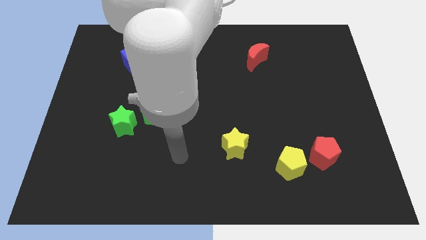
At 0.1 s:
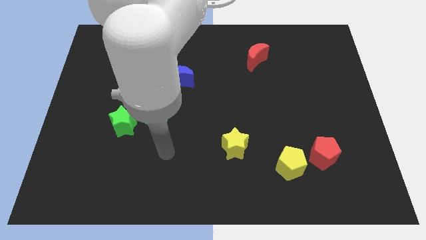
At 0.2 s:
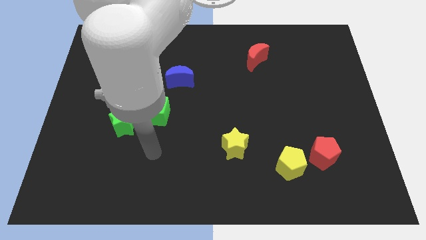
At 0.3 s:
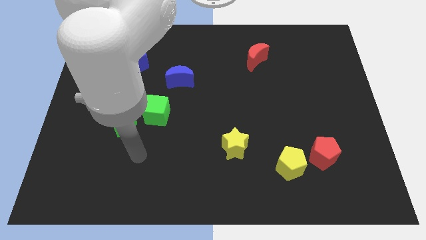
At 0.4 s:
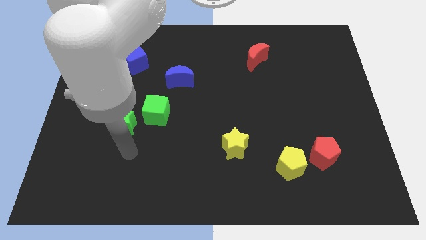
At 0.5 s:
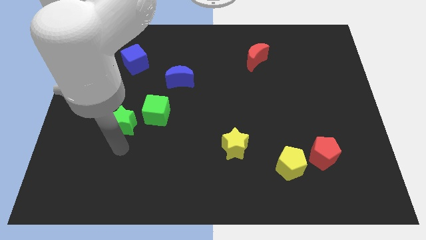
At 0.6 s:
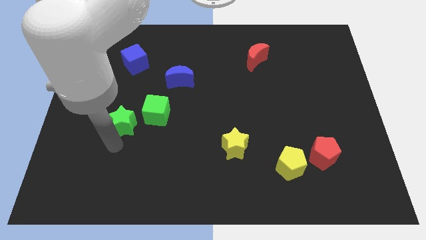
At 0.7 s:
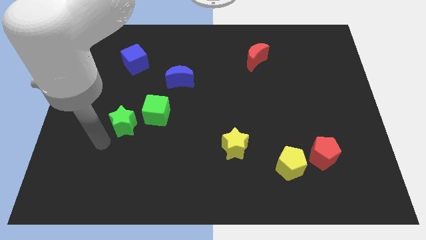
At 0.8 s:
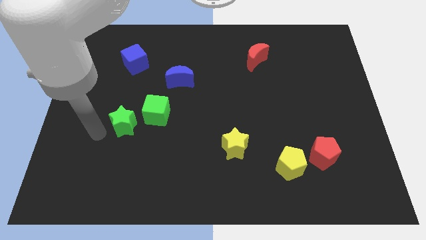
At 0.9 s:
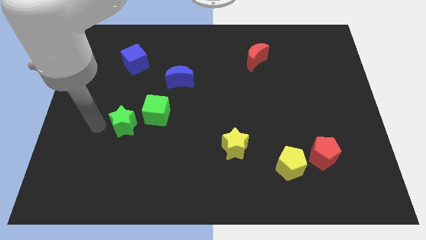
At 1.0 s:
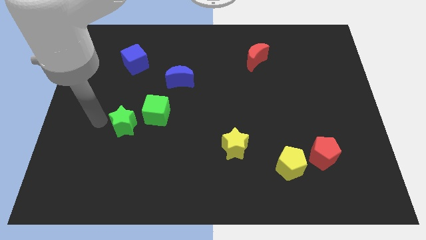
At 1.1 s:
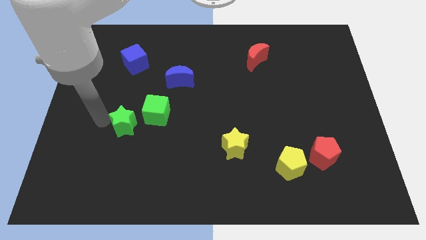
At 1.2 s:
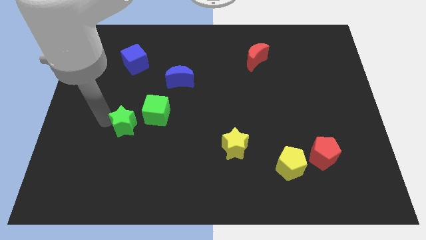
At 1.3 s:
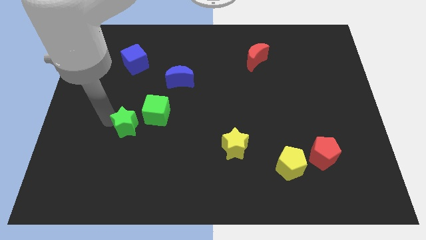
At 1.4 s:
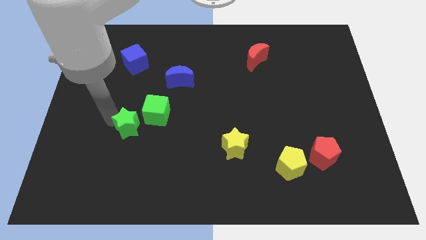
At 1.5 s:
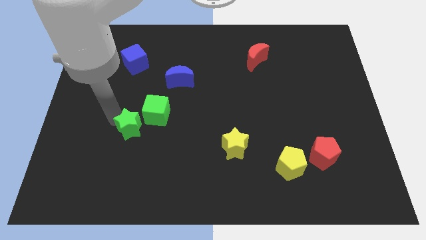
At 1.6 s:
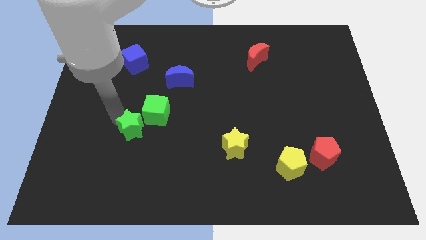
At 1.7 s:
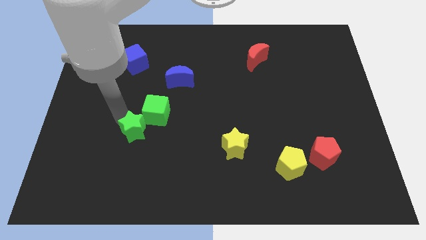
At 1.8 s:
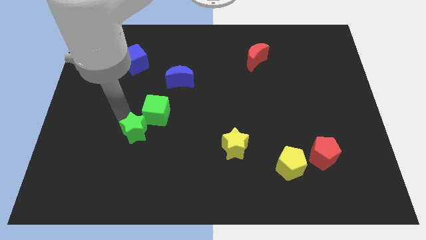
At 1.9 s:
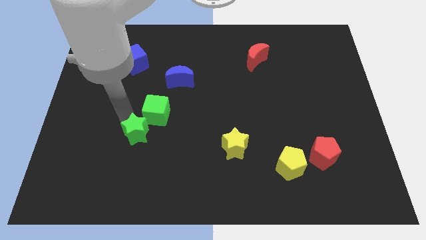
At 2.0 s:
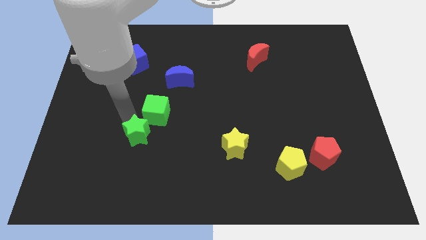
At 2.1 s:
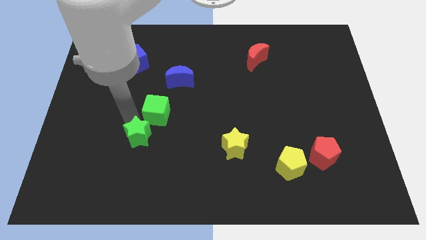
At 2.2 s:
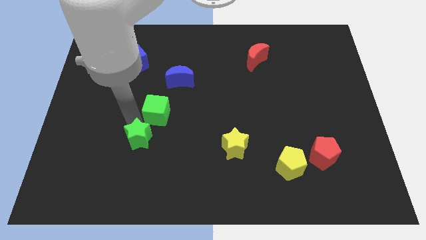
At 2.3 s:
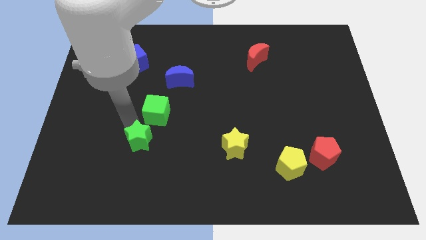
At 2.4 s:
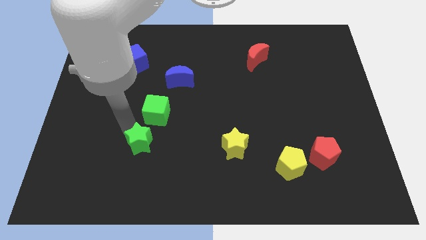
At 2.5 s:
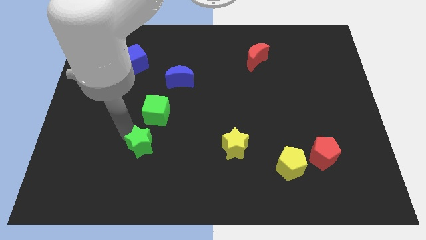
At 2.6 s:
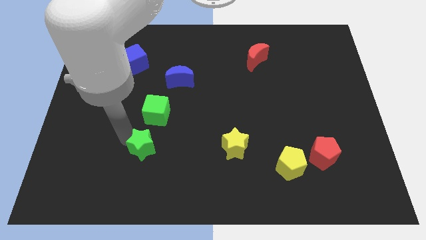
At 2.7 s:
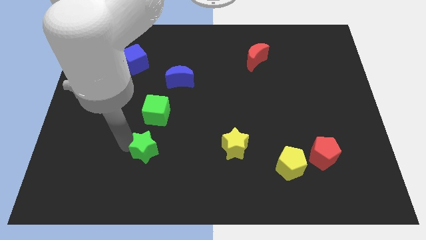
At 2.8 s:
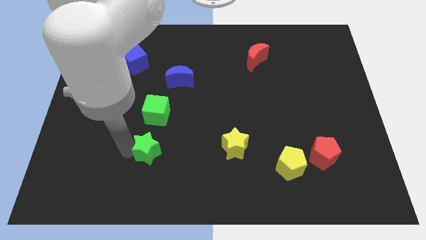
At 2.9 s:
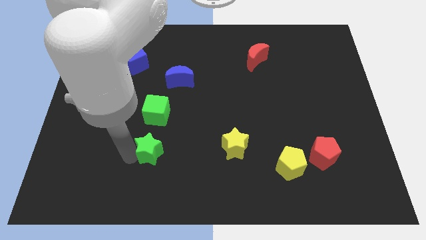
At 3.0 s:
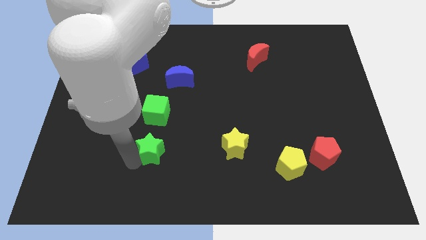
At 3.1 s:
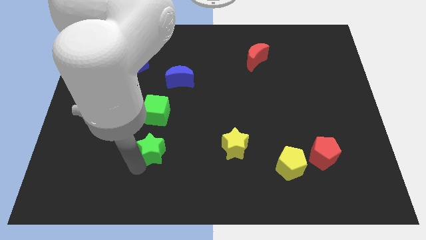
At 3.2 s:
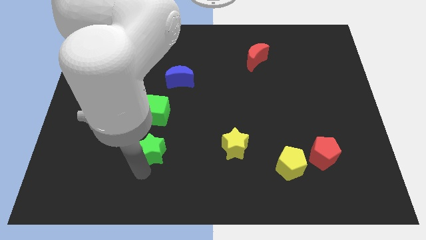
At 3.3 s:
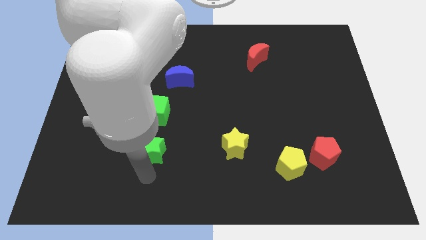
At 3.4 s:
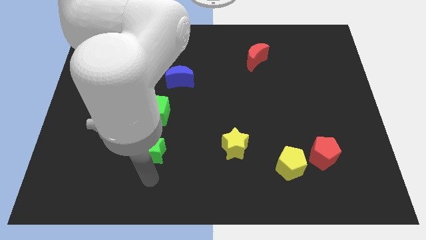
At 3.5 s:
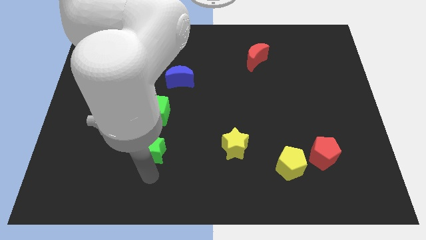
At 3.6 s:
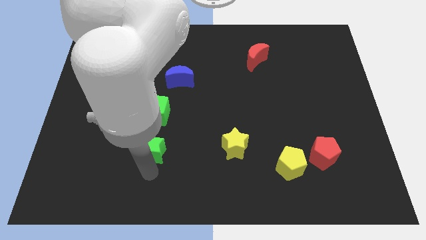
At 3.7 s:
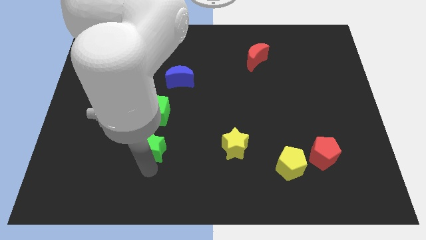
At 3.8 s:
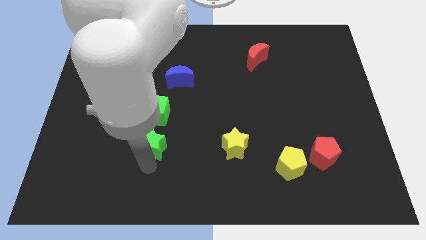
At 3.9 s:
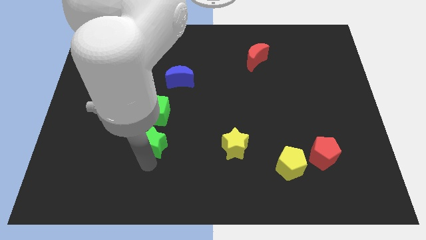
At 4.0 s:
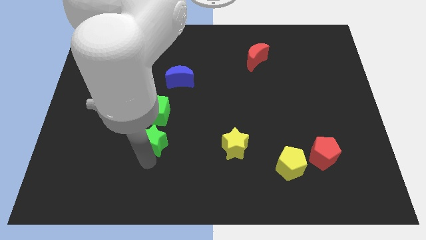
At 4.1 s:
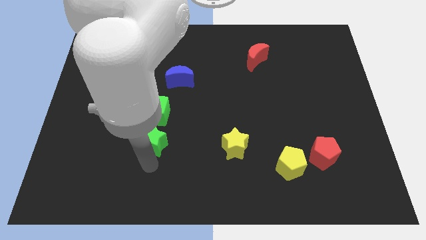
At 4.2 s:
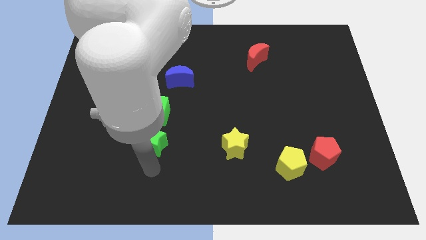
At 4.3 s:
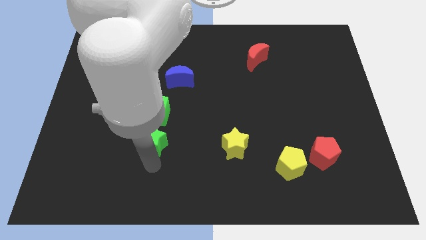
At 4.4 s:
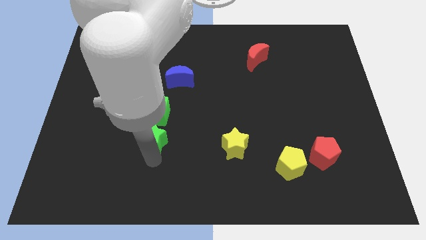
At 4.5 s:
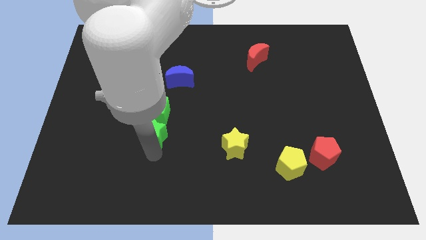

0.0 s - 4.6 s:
slightly move the green star to the right

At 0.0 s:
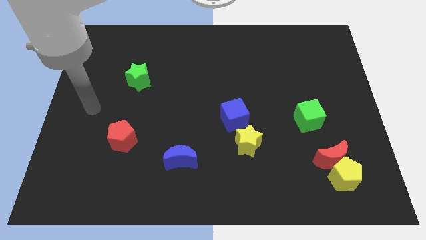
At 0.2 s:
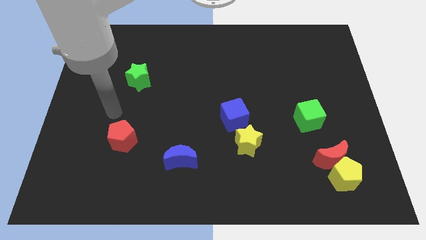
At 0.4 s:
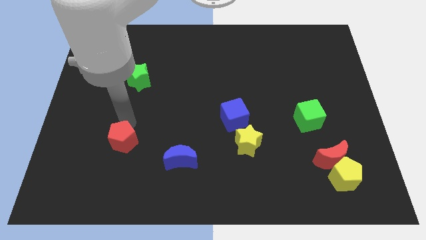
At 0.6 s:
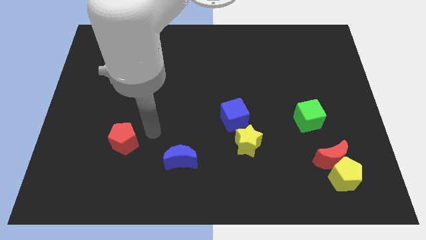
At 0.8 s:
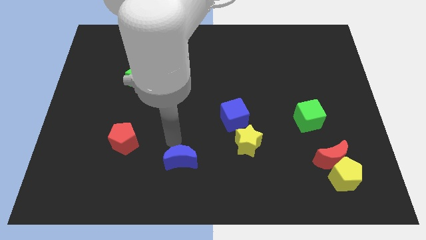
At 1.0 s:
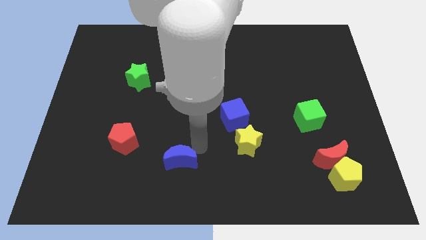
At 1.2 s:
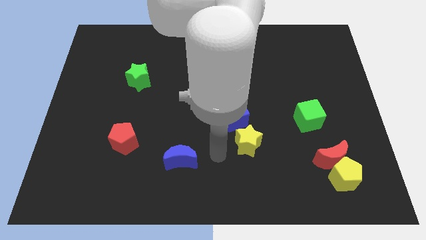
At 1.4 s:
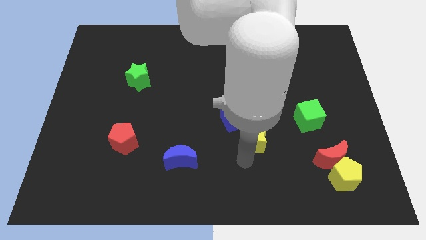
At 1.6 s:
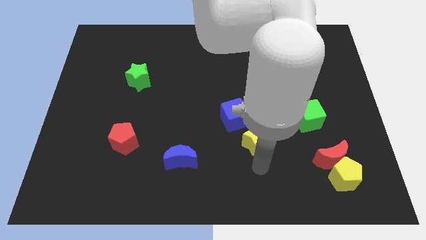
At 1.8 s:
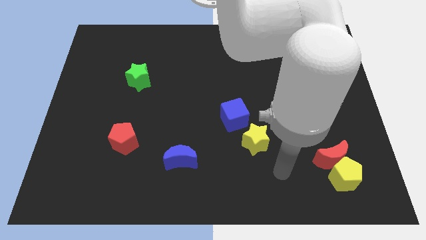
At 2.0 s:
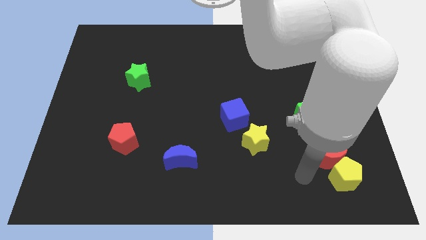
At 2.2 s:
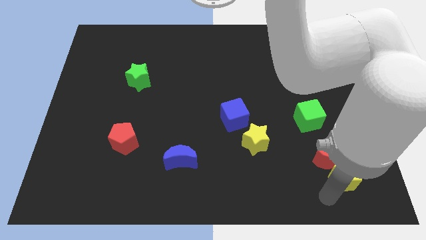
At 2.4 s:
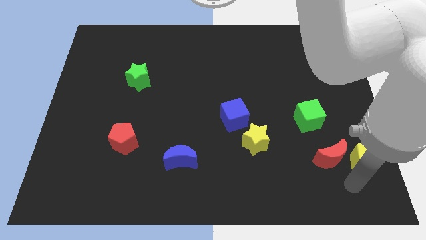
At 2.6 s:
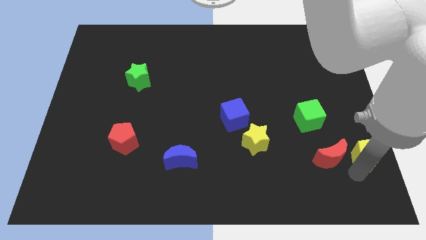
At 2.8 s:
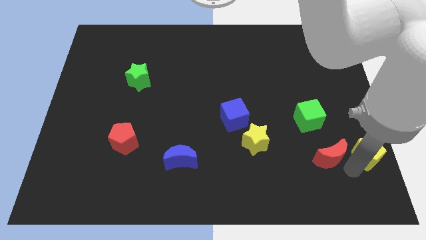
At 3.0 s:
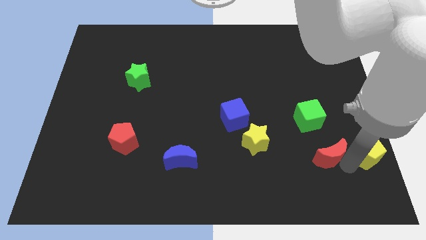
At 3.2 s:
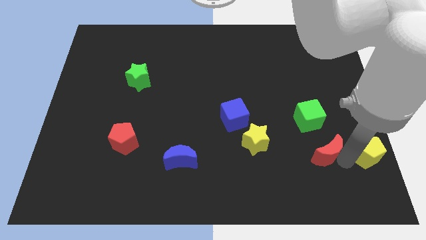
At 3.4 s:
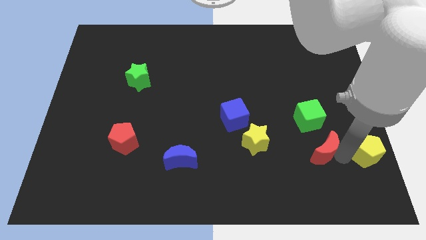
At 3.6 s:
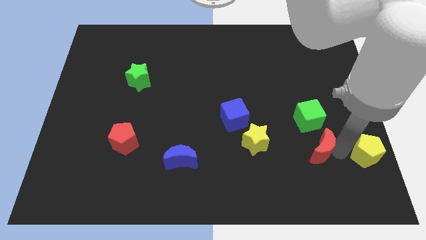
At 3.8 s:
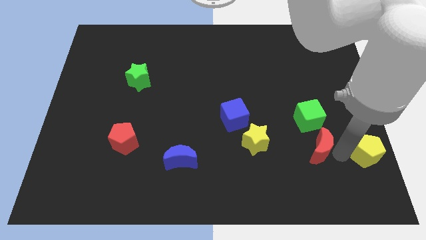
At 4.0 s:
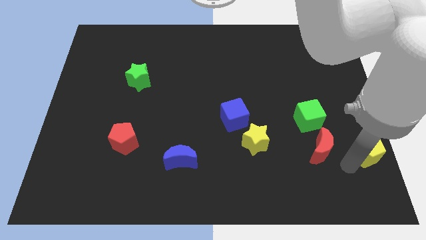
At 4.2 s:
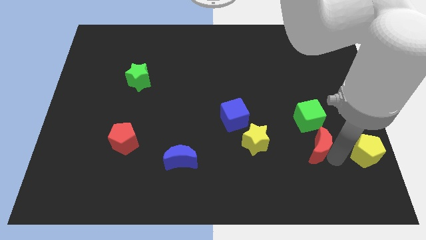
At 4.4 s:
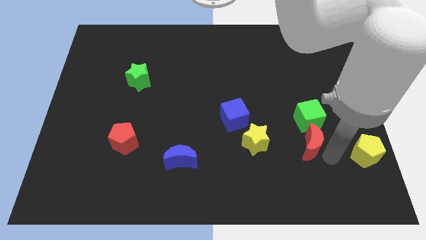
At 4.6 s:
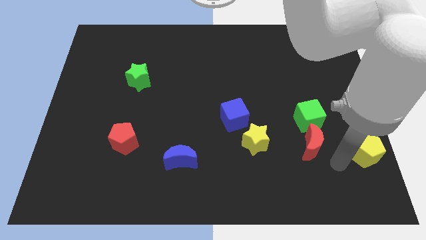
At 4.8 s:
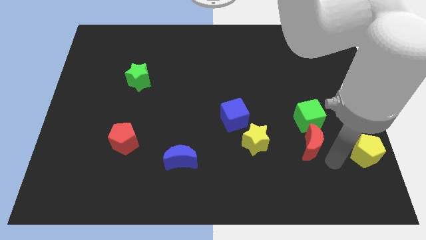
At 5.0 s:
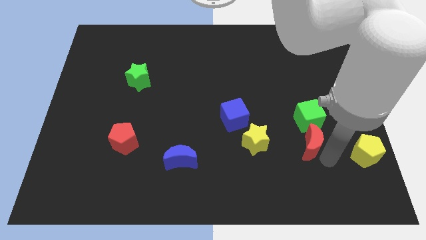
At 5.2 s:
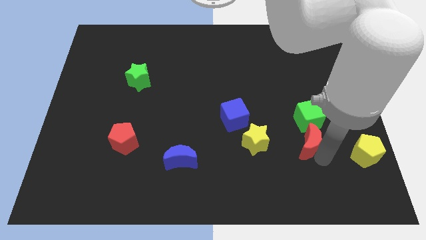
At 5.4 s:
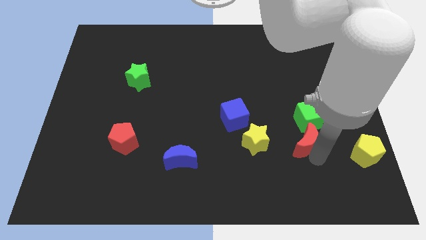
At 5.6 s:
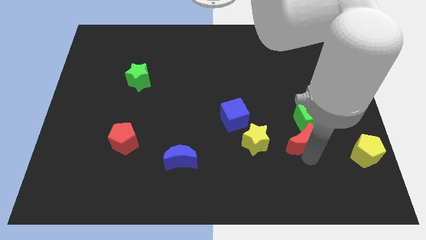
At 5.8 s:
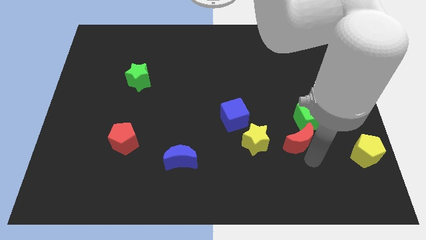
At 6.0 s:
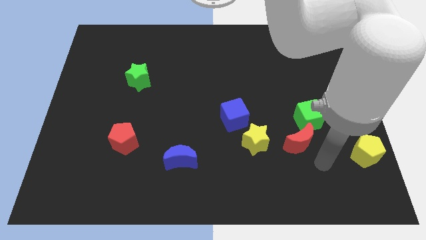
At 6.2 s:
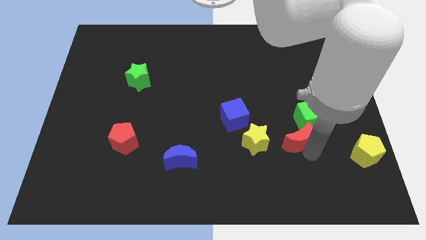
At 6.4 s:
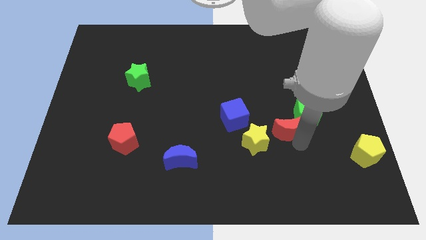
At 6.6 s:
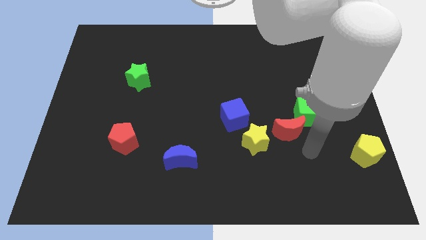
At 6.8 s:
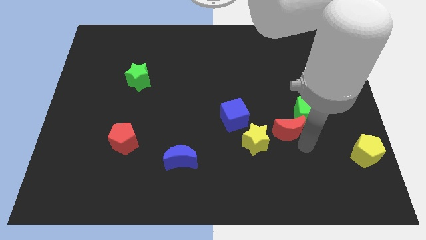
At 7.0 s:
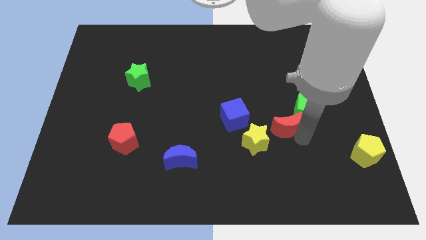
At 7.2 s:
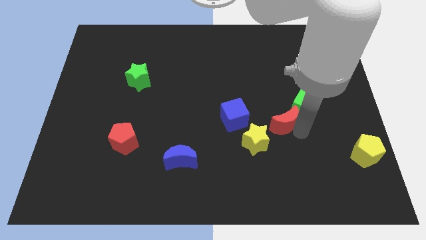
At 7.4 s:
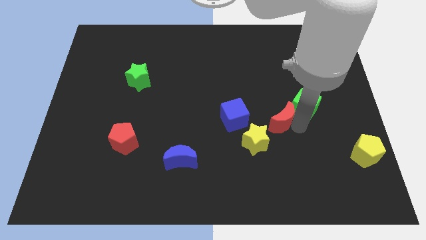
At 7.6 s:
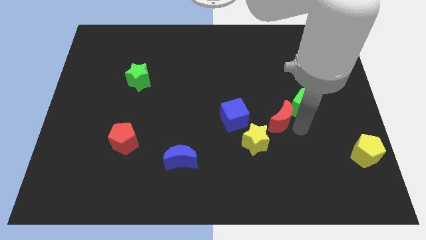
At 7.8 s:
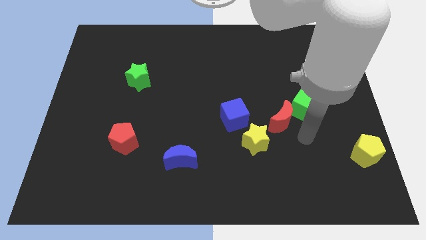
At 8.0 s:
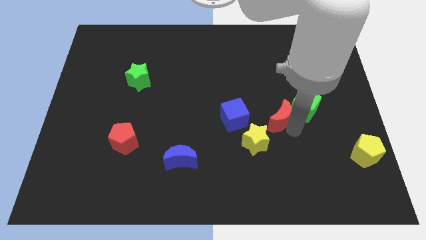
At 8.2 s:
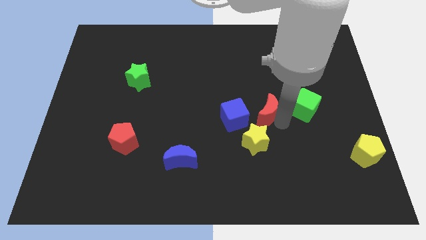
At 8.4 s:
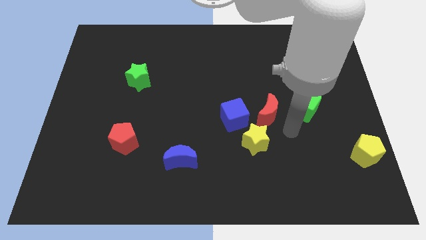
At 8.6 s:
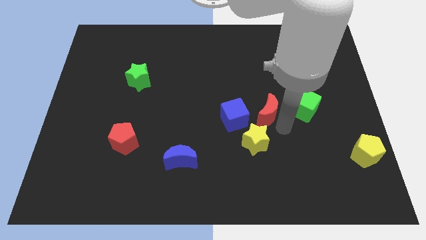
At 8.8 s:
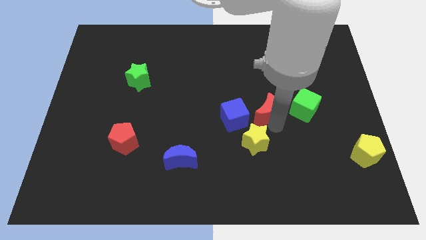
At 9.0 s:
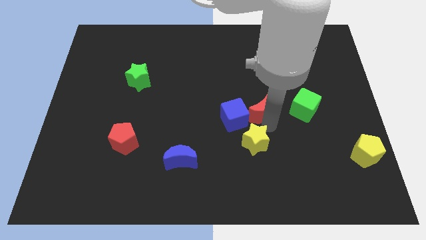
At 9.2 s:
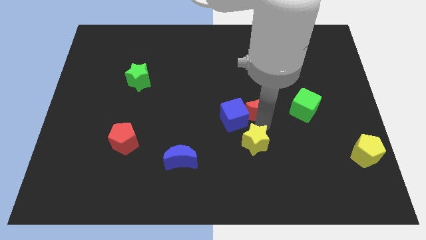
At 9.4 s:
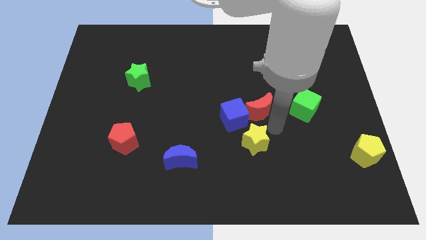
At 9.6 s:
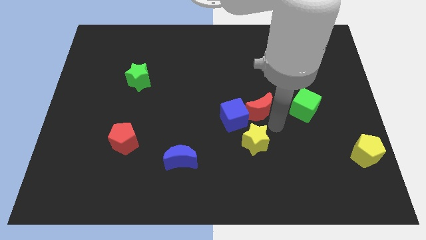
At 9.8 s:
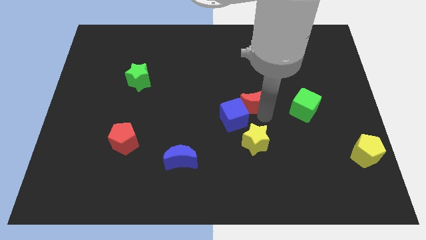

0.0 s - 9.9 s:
slide the red moon diagonally up and left
